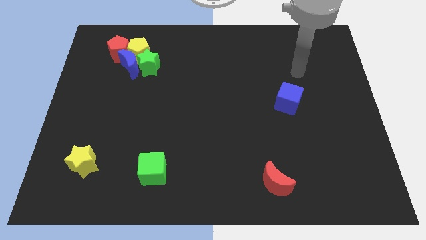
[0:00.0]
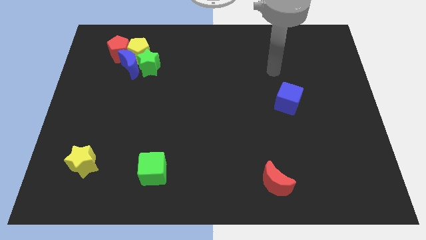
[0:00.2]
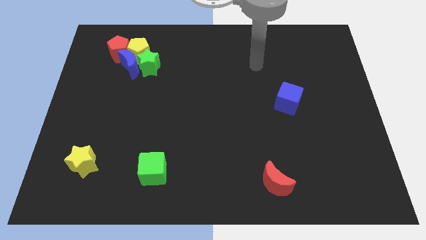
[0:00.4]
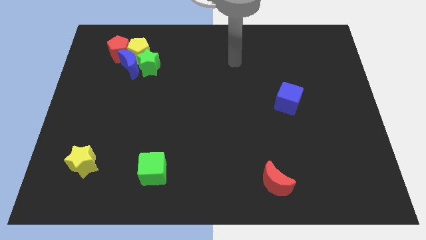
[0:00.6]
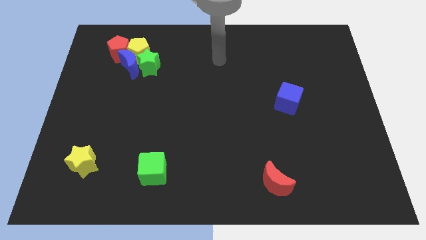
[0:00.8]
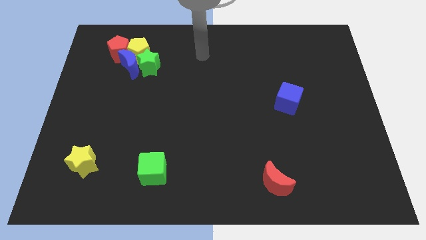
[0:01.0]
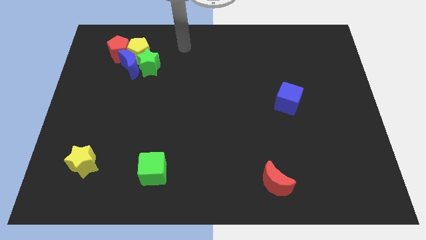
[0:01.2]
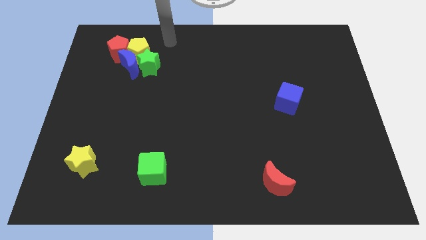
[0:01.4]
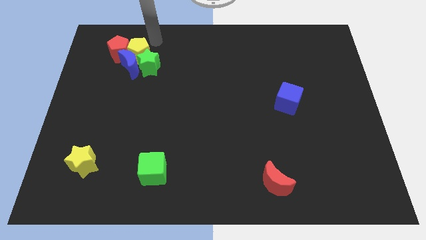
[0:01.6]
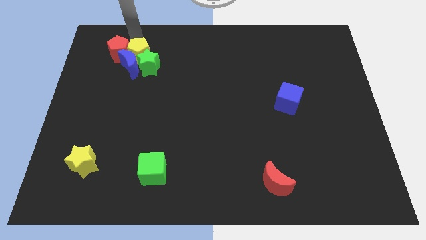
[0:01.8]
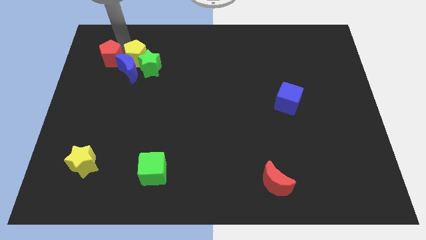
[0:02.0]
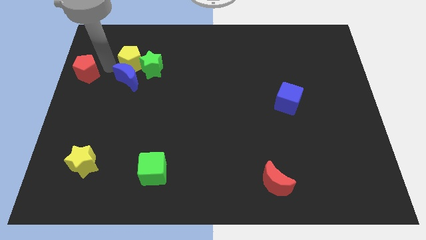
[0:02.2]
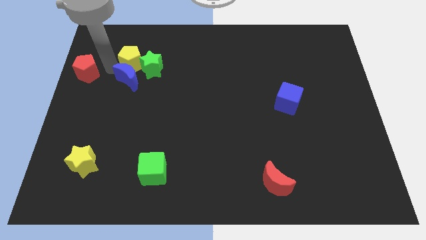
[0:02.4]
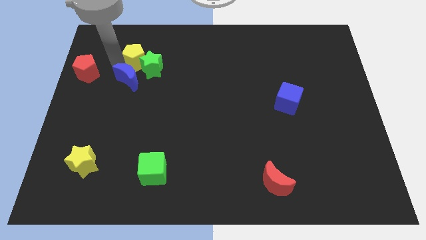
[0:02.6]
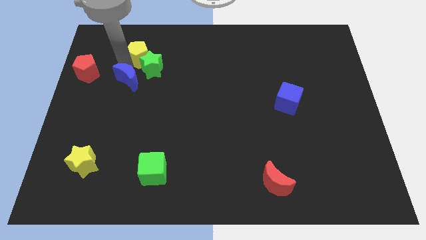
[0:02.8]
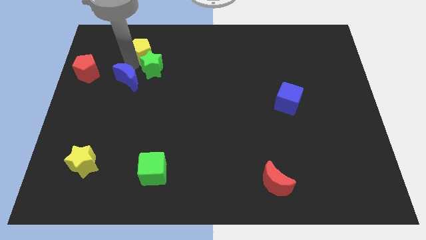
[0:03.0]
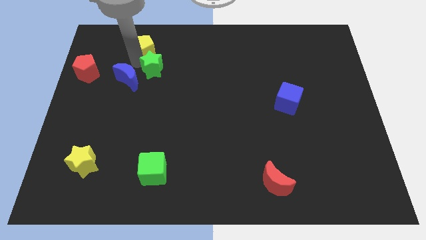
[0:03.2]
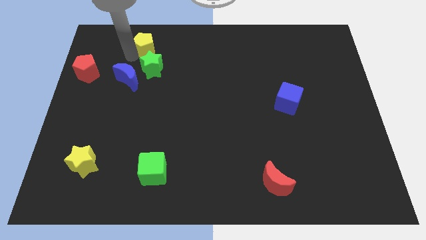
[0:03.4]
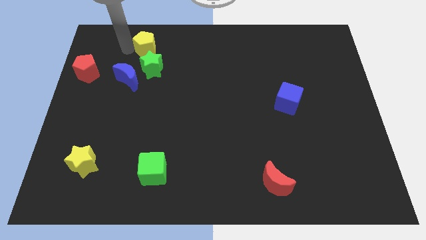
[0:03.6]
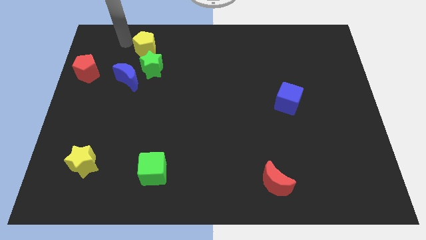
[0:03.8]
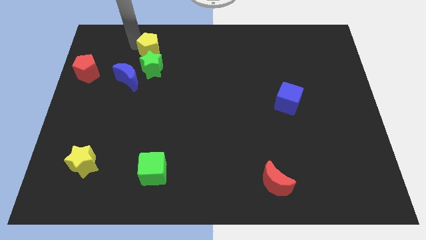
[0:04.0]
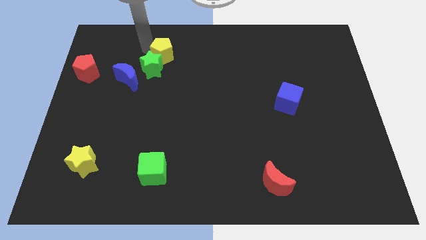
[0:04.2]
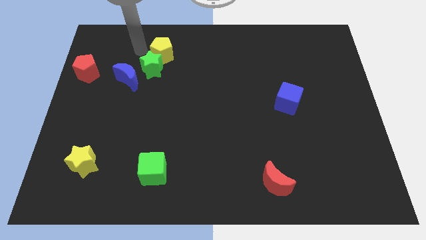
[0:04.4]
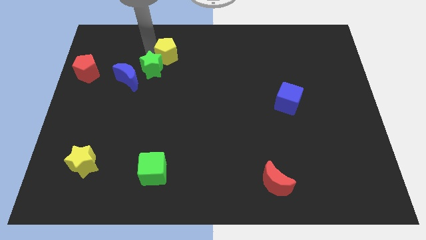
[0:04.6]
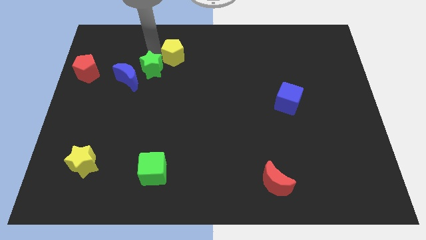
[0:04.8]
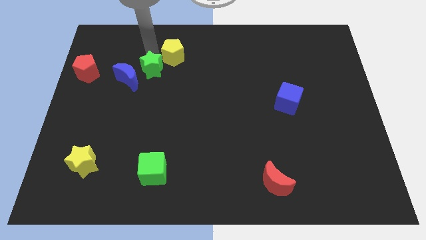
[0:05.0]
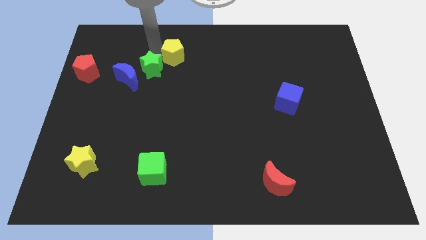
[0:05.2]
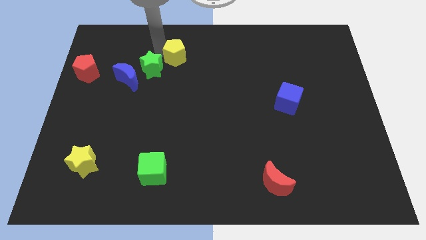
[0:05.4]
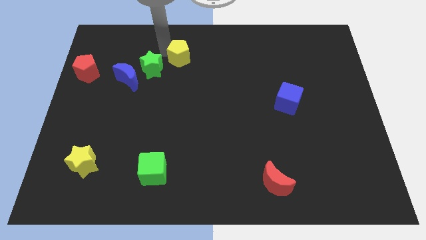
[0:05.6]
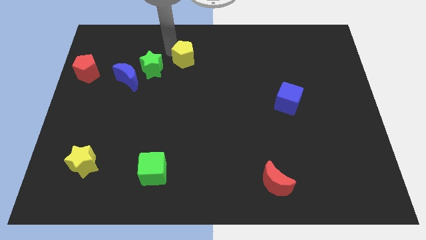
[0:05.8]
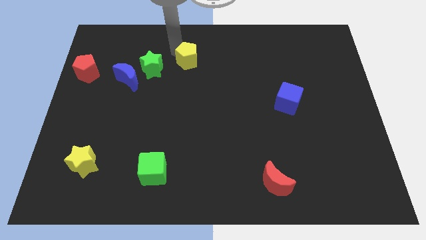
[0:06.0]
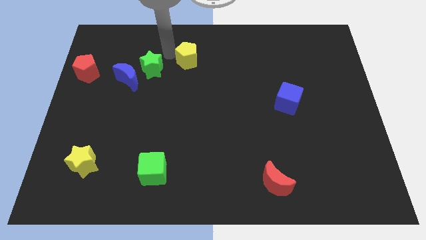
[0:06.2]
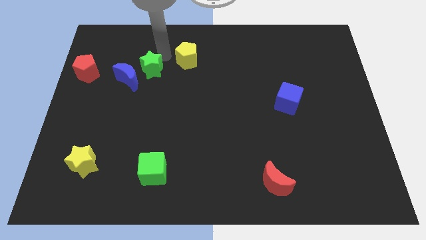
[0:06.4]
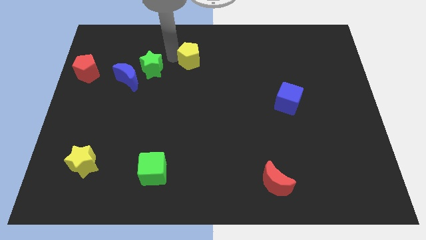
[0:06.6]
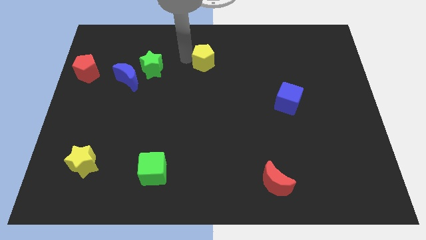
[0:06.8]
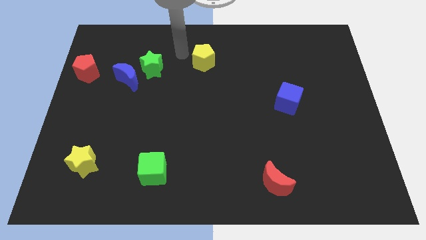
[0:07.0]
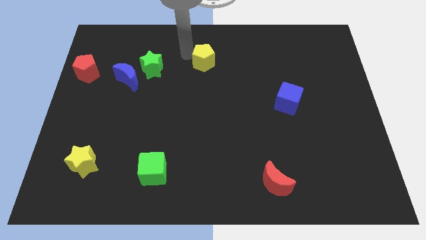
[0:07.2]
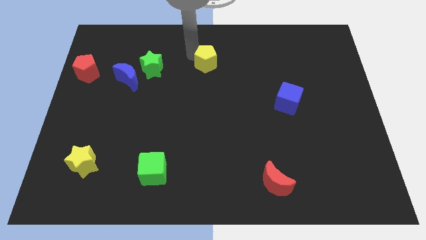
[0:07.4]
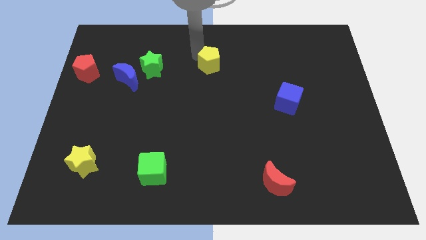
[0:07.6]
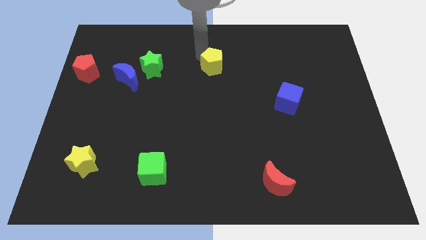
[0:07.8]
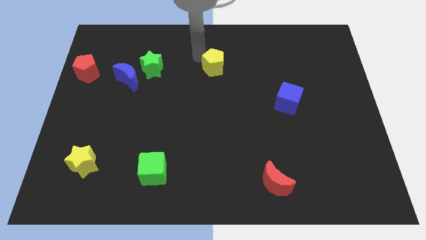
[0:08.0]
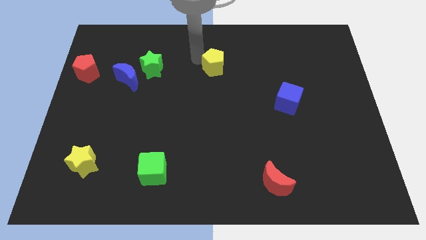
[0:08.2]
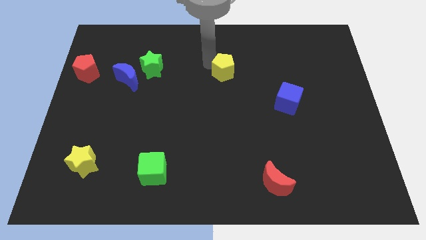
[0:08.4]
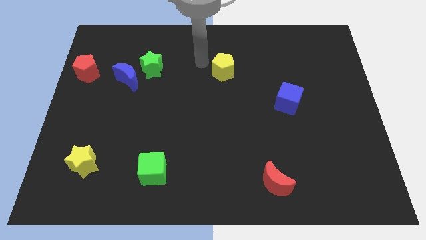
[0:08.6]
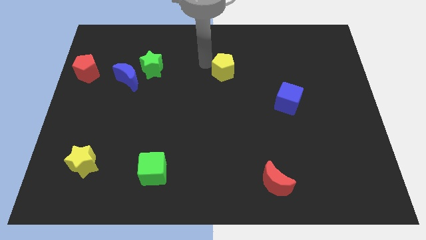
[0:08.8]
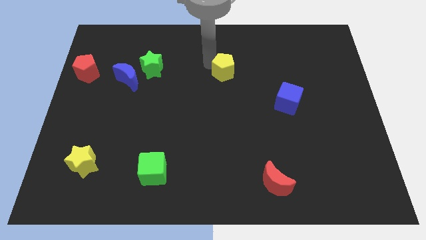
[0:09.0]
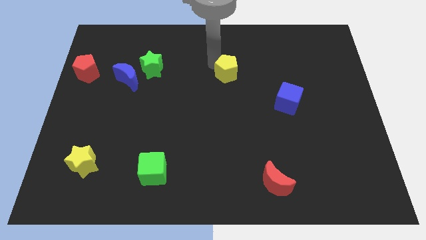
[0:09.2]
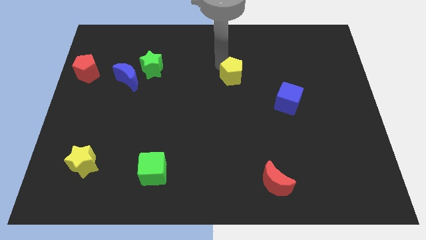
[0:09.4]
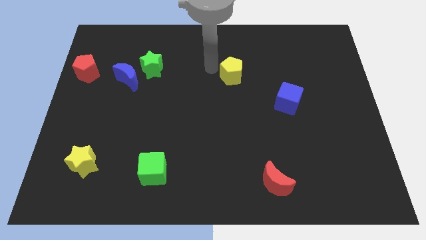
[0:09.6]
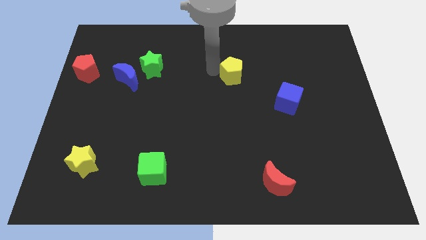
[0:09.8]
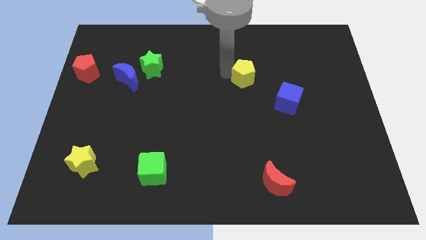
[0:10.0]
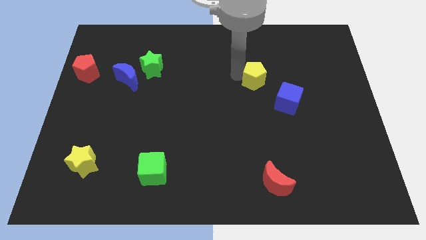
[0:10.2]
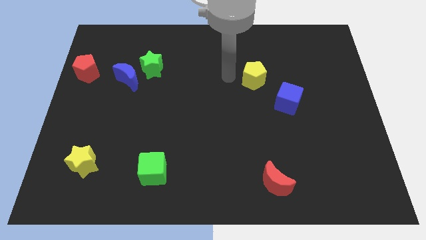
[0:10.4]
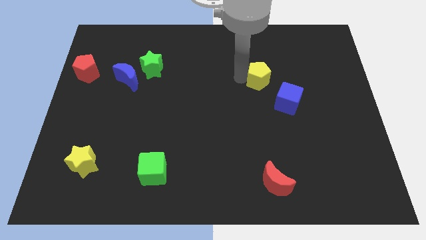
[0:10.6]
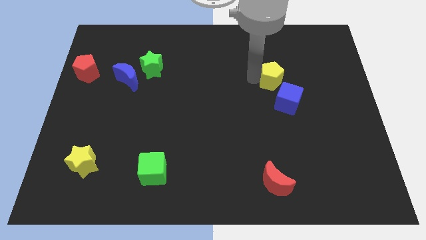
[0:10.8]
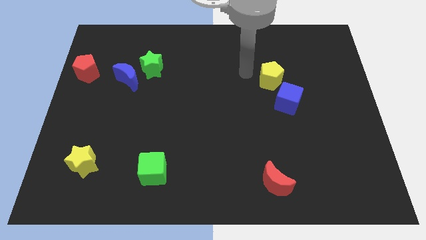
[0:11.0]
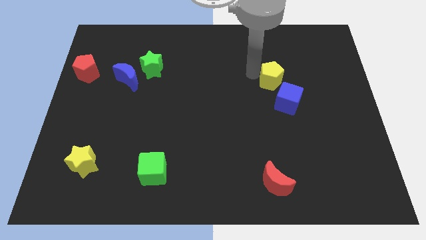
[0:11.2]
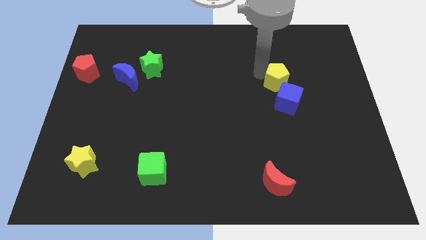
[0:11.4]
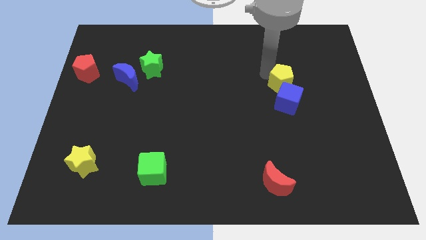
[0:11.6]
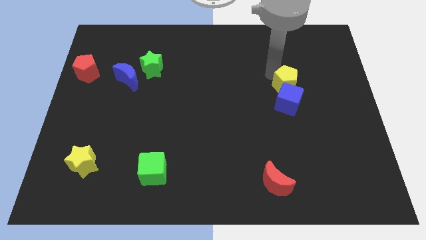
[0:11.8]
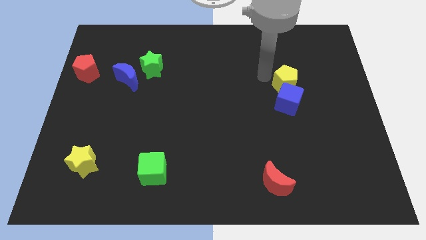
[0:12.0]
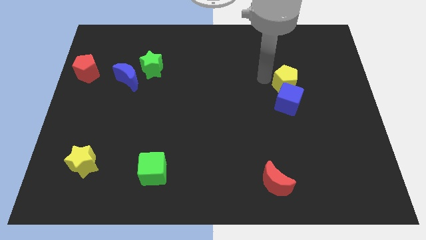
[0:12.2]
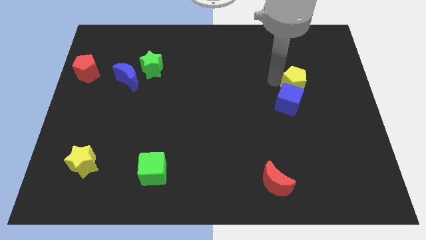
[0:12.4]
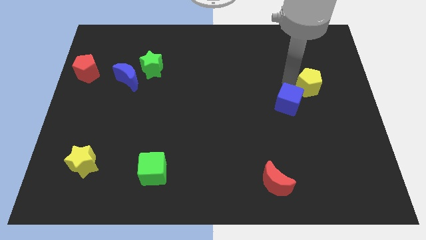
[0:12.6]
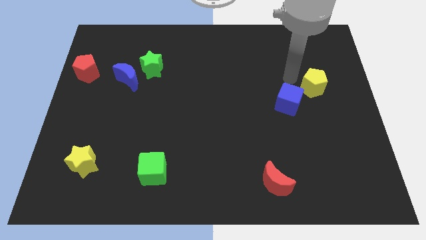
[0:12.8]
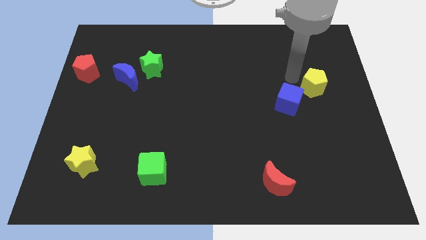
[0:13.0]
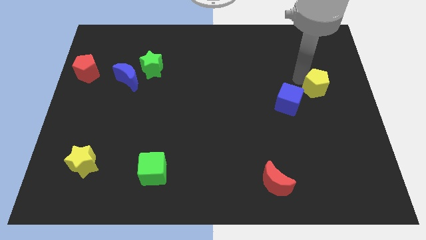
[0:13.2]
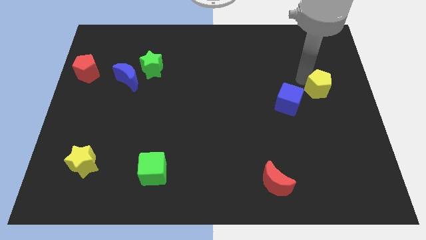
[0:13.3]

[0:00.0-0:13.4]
slide the yellow pentagon to the right side of the board

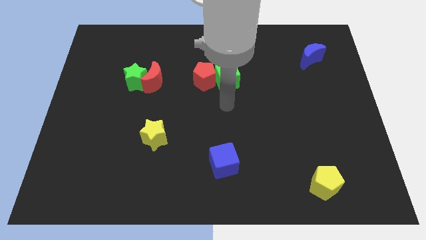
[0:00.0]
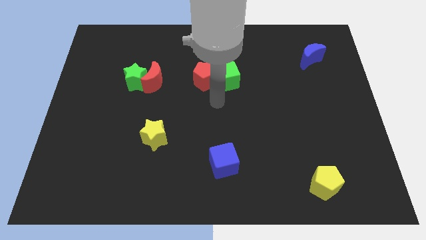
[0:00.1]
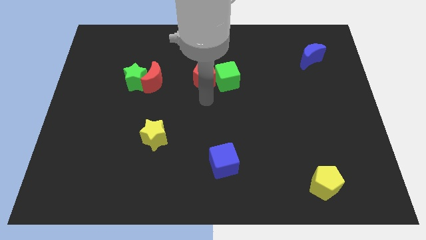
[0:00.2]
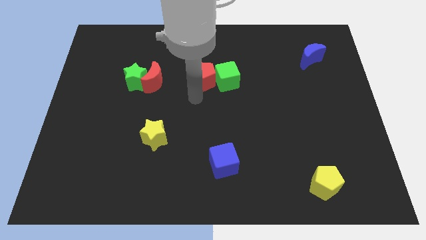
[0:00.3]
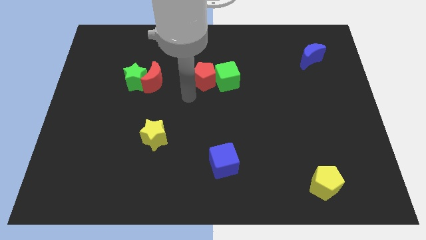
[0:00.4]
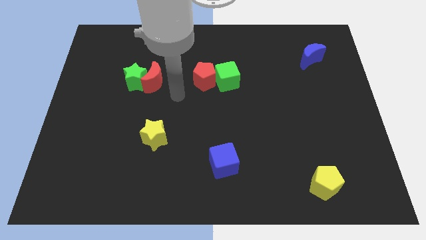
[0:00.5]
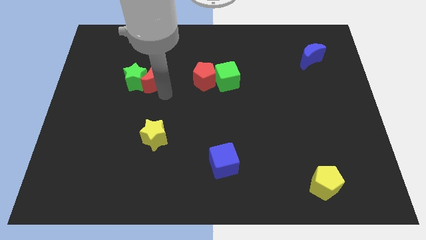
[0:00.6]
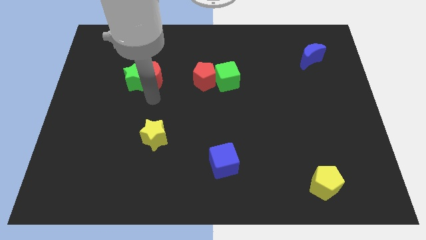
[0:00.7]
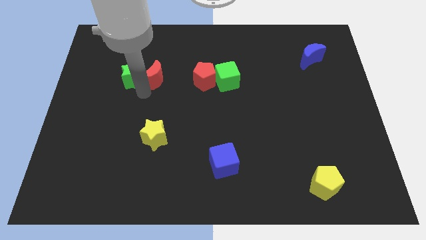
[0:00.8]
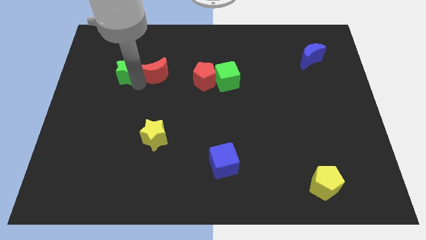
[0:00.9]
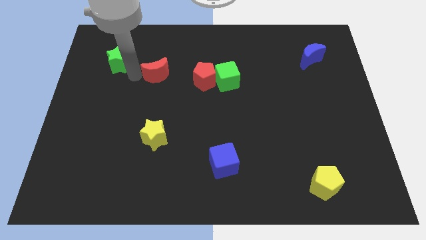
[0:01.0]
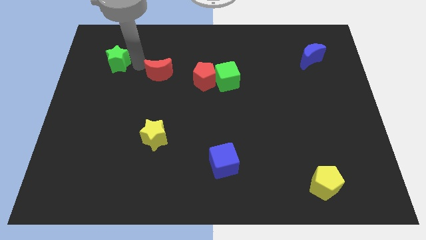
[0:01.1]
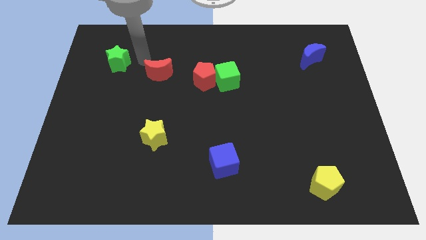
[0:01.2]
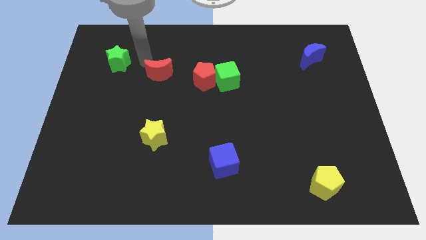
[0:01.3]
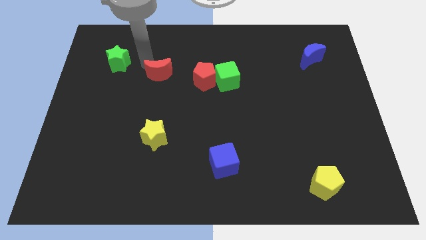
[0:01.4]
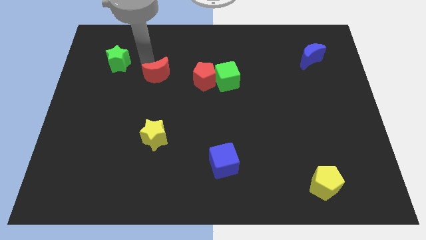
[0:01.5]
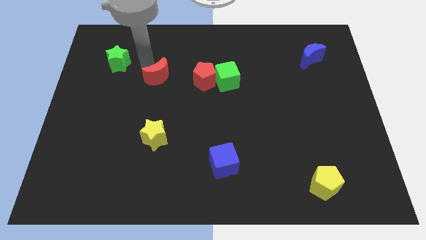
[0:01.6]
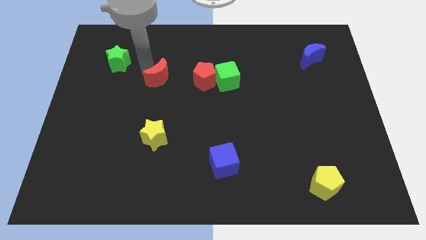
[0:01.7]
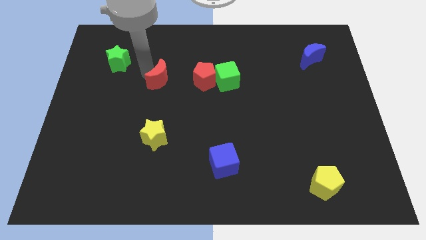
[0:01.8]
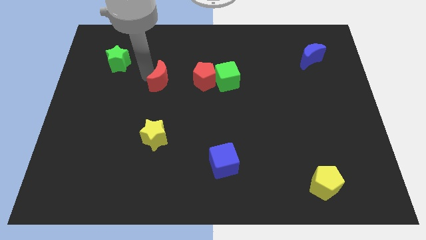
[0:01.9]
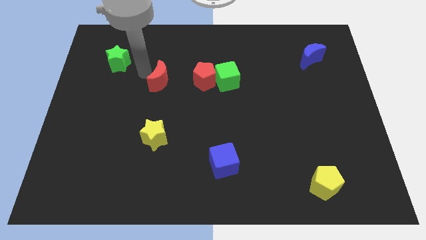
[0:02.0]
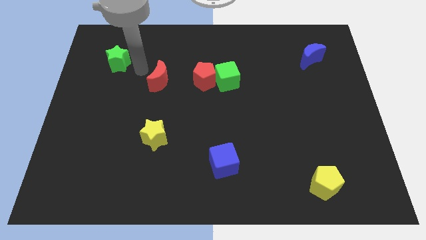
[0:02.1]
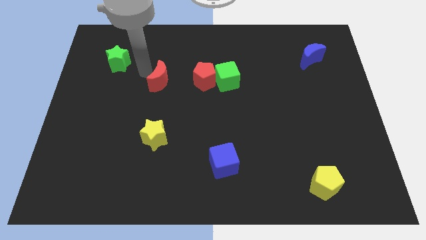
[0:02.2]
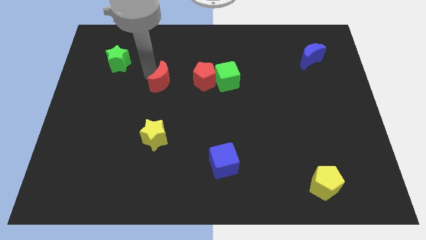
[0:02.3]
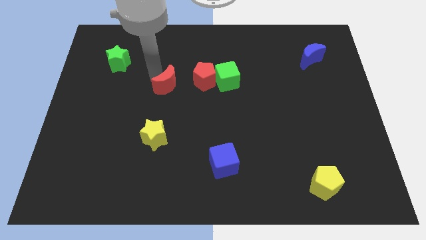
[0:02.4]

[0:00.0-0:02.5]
push the red moon to the middle of the board
